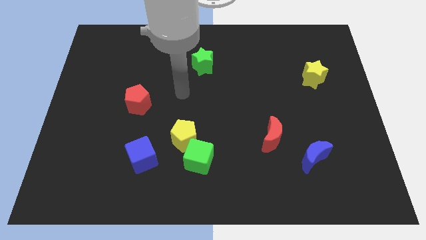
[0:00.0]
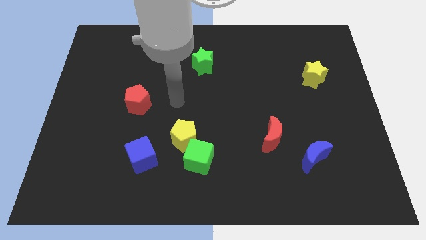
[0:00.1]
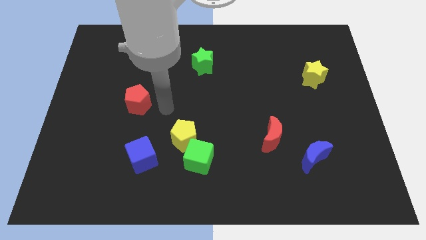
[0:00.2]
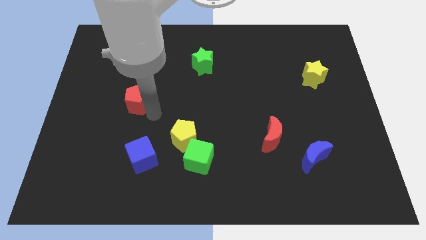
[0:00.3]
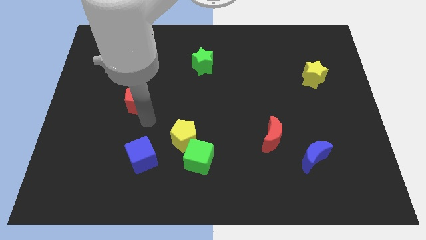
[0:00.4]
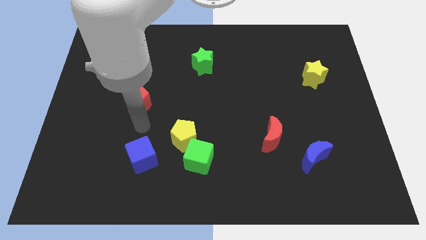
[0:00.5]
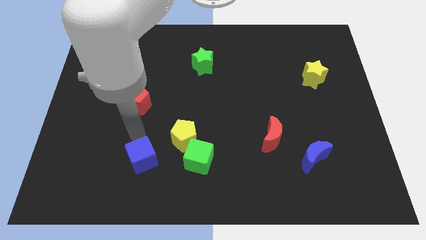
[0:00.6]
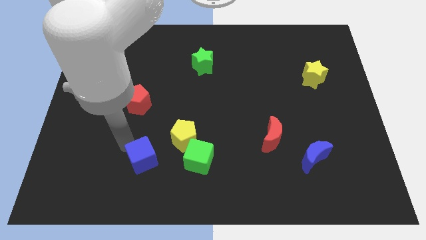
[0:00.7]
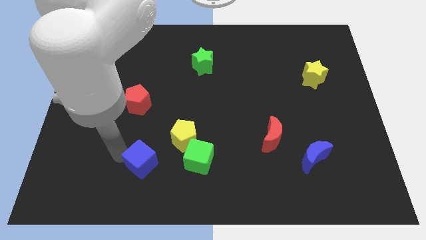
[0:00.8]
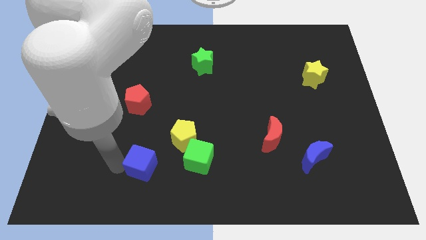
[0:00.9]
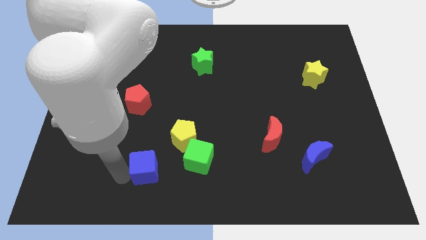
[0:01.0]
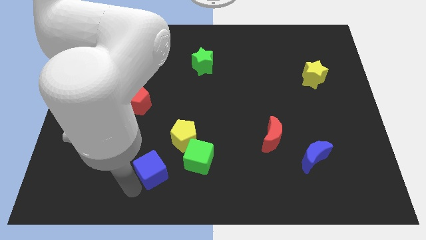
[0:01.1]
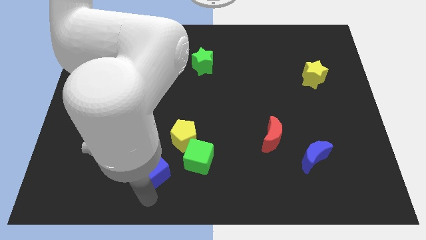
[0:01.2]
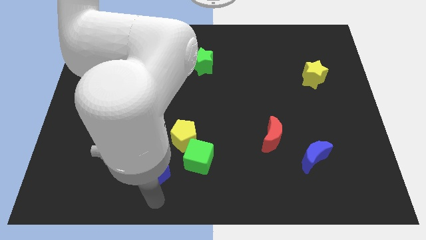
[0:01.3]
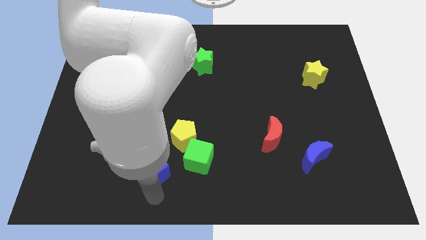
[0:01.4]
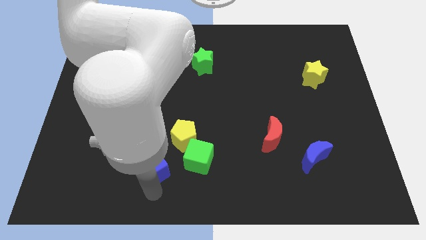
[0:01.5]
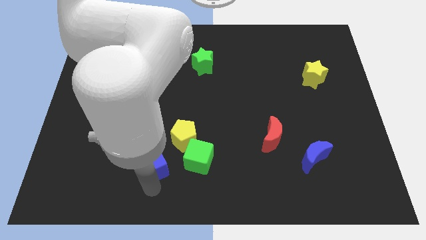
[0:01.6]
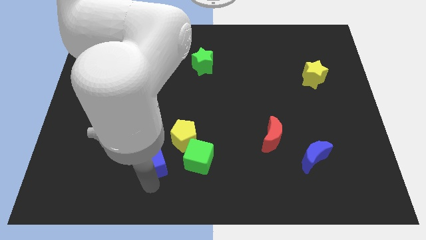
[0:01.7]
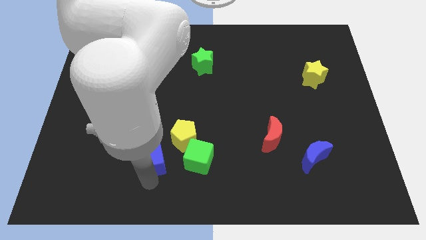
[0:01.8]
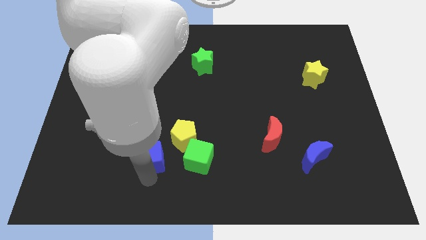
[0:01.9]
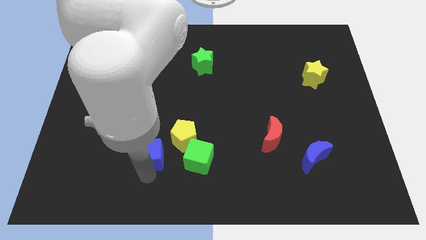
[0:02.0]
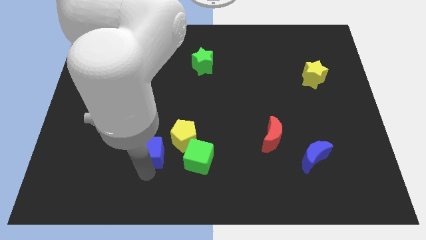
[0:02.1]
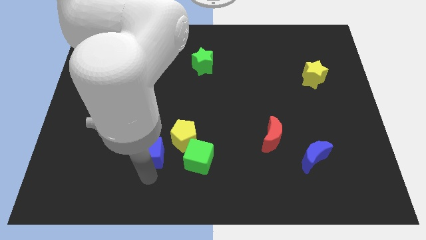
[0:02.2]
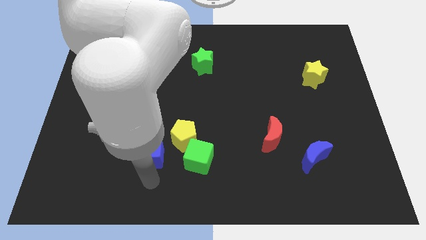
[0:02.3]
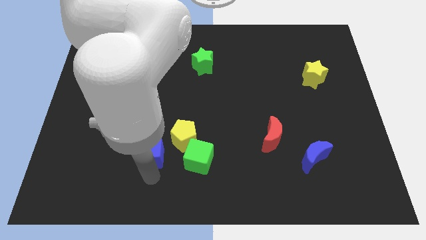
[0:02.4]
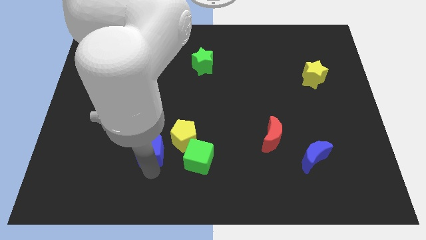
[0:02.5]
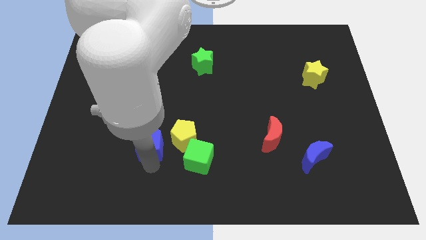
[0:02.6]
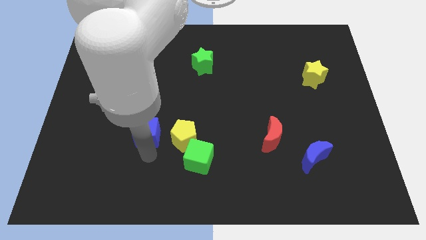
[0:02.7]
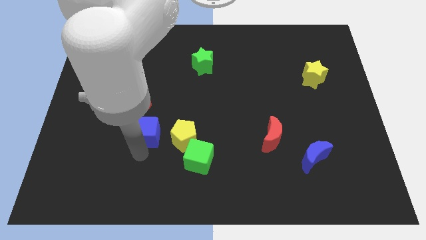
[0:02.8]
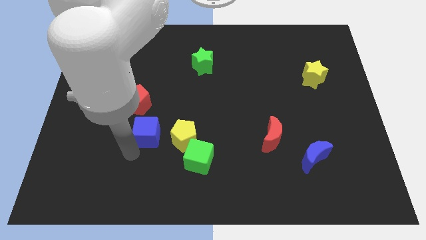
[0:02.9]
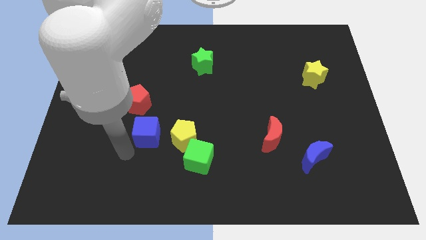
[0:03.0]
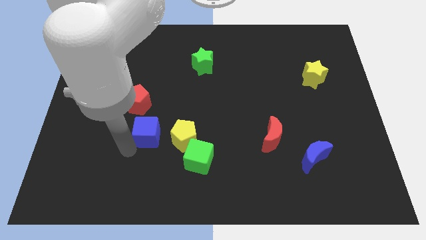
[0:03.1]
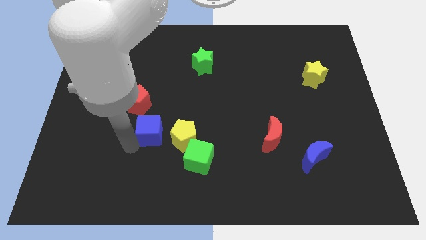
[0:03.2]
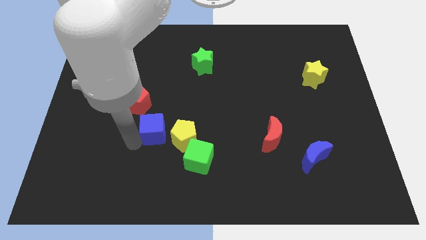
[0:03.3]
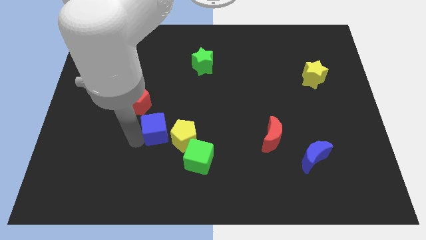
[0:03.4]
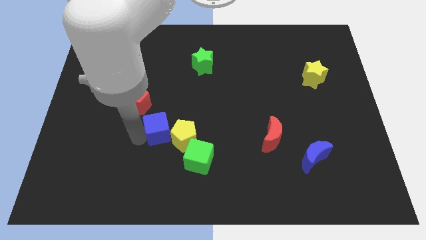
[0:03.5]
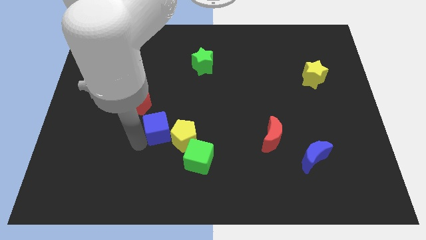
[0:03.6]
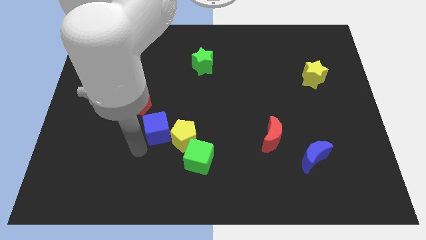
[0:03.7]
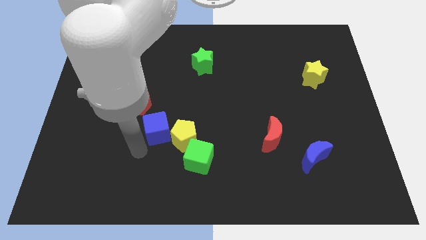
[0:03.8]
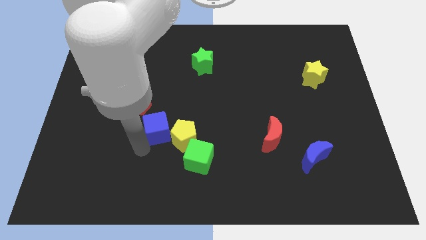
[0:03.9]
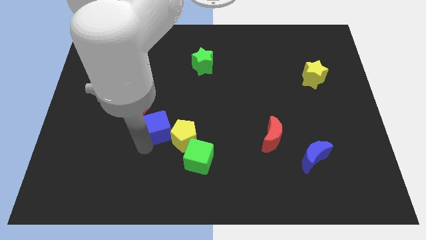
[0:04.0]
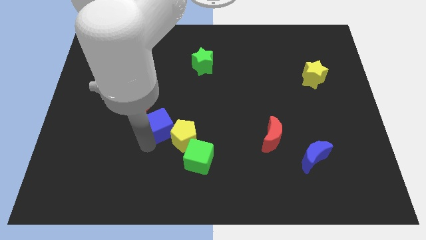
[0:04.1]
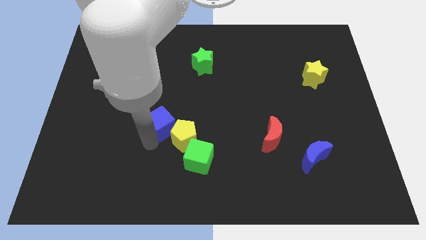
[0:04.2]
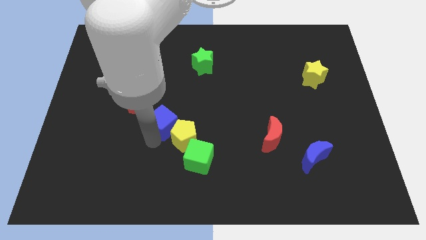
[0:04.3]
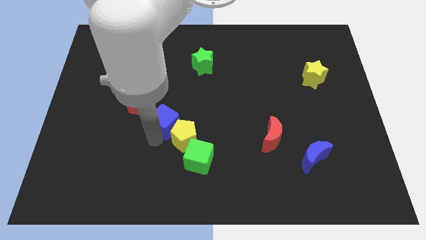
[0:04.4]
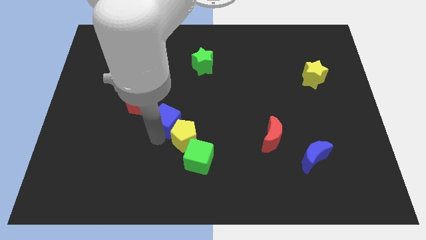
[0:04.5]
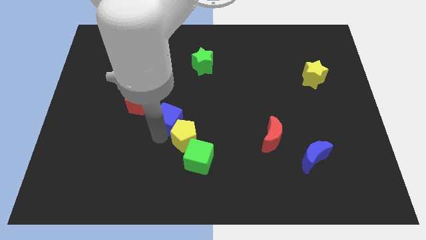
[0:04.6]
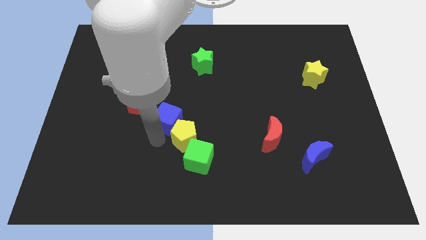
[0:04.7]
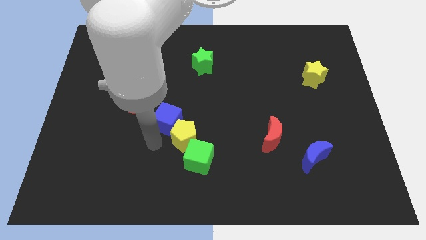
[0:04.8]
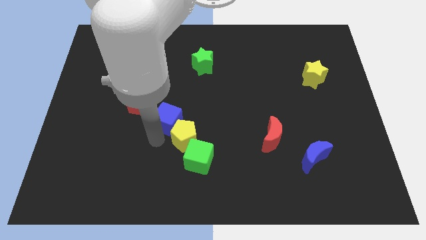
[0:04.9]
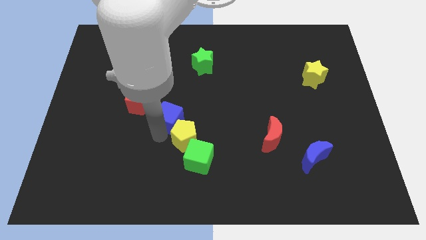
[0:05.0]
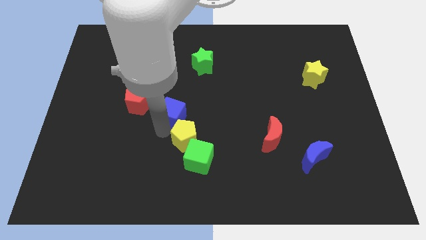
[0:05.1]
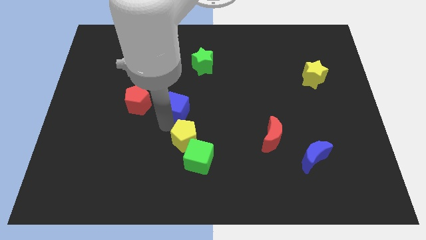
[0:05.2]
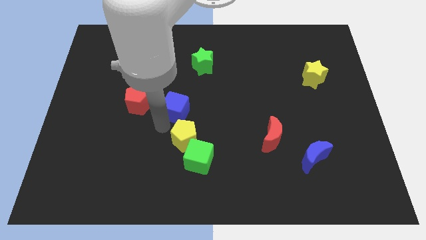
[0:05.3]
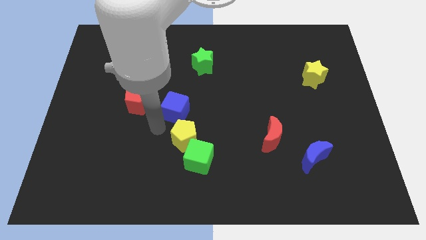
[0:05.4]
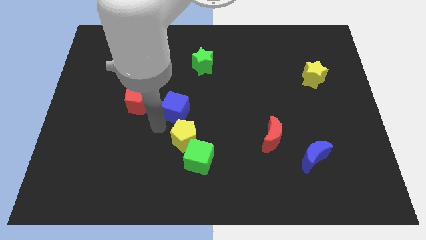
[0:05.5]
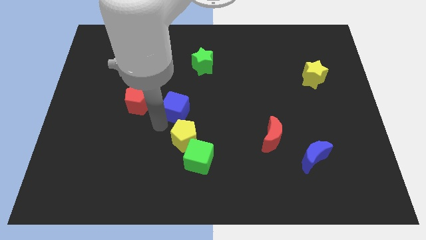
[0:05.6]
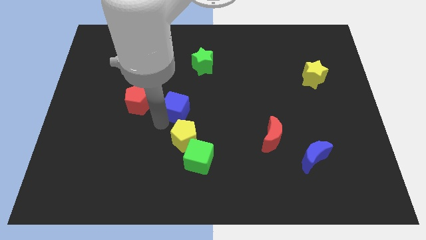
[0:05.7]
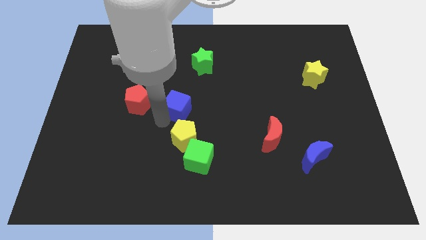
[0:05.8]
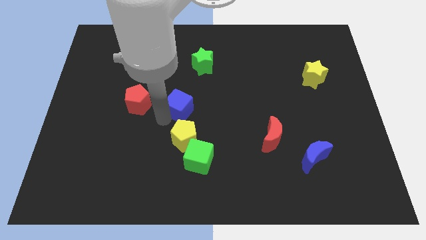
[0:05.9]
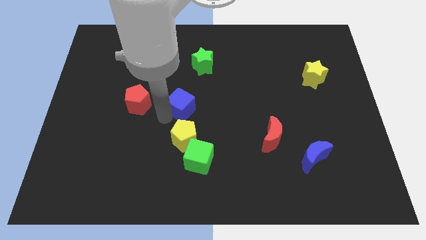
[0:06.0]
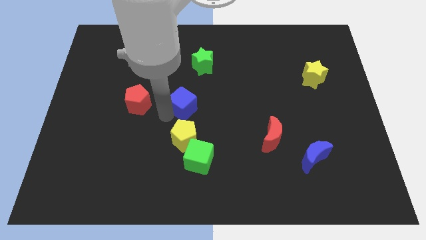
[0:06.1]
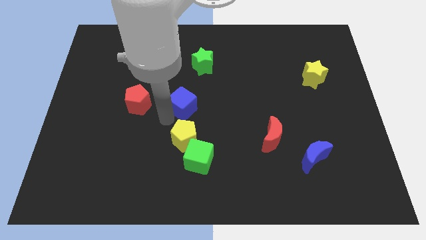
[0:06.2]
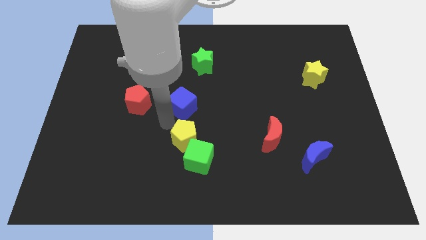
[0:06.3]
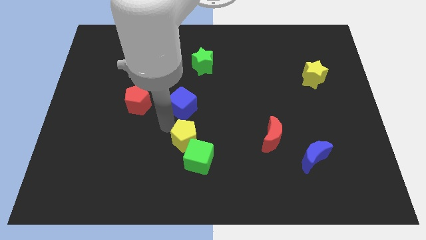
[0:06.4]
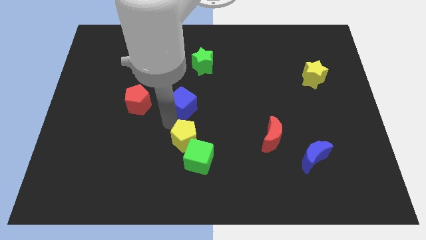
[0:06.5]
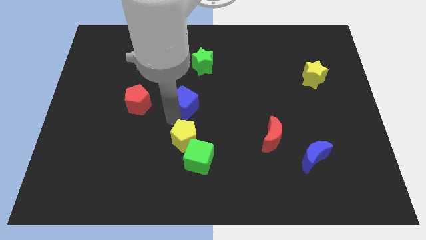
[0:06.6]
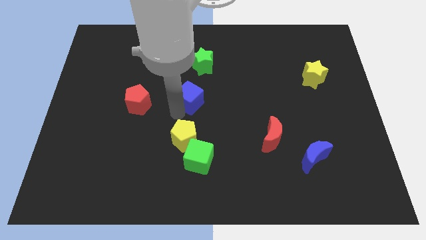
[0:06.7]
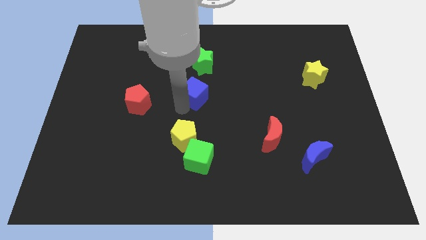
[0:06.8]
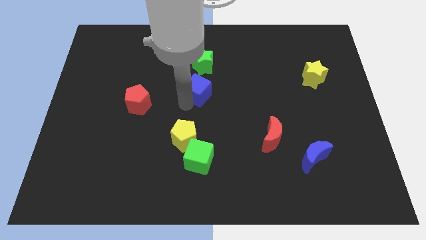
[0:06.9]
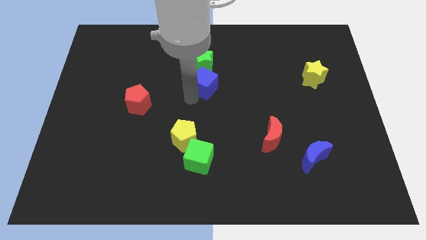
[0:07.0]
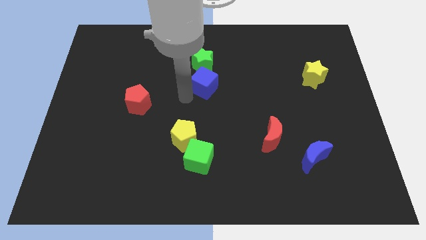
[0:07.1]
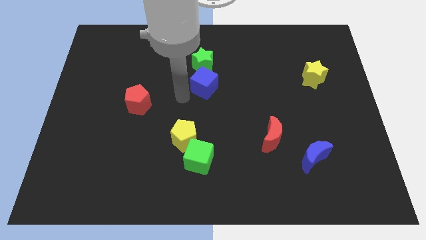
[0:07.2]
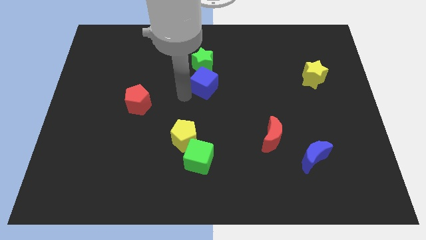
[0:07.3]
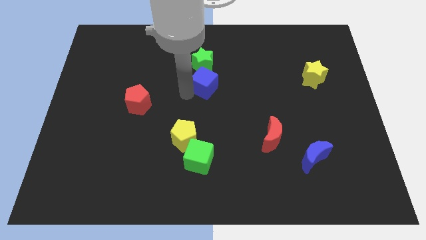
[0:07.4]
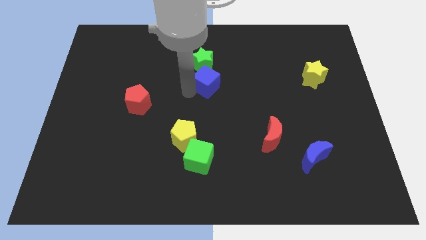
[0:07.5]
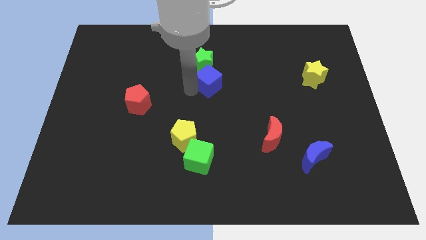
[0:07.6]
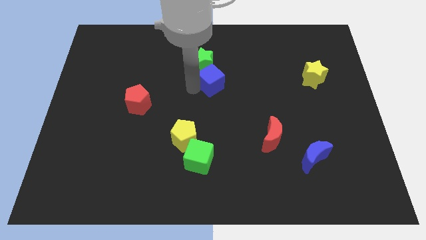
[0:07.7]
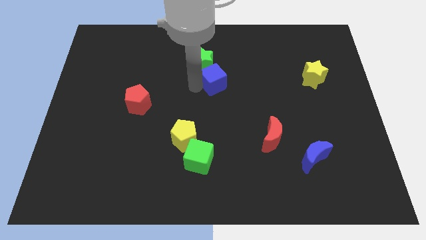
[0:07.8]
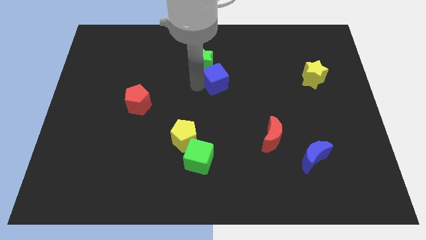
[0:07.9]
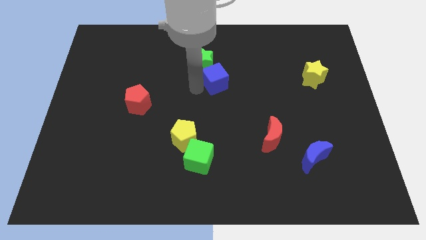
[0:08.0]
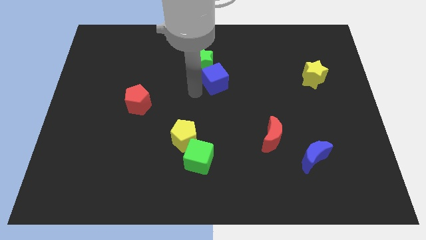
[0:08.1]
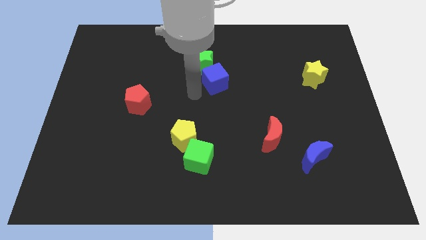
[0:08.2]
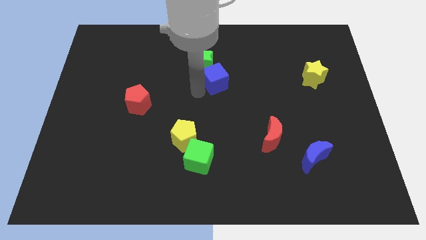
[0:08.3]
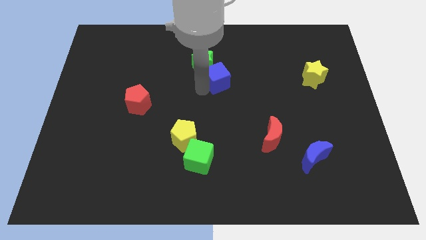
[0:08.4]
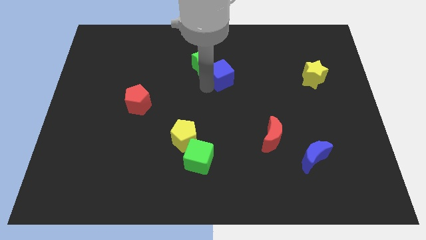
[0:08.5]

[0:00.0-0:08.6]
put the blue cube to the right side of the green star
